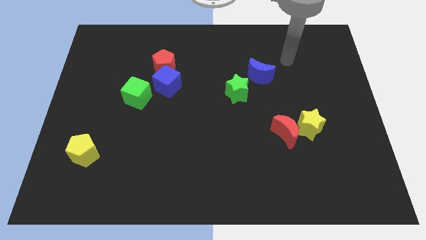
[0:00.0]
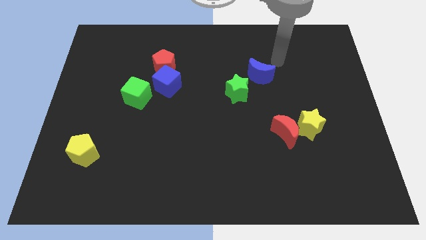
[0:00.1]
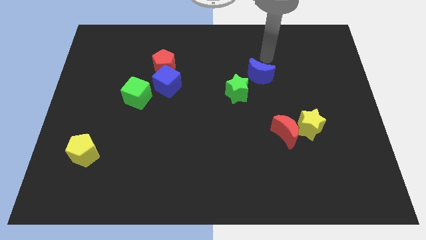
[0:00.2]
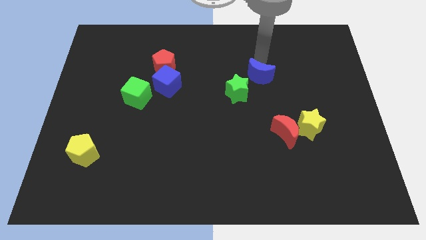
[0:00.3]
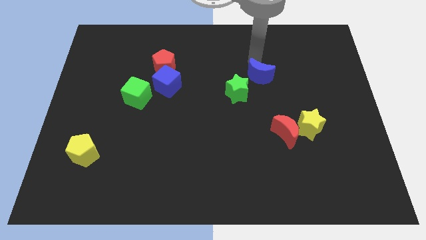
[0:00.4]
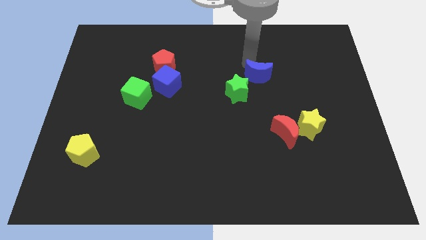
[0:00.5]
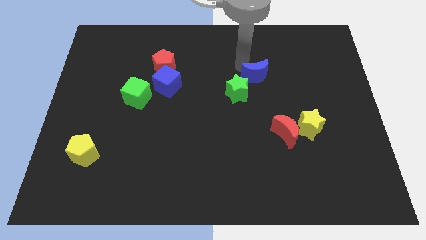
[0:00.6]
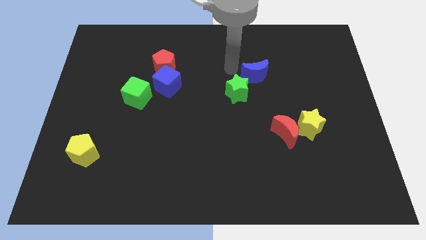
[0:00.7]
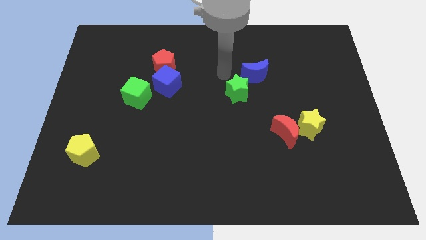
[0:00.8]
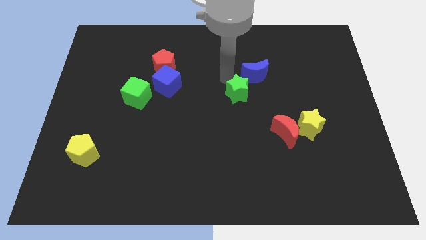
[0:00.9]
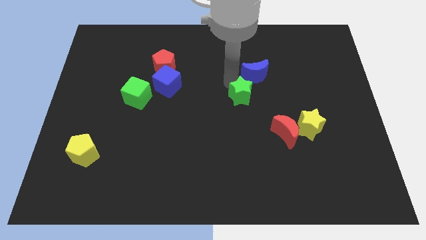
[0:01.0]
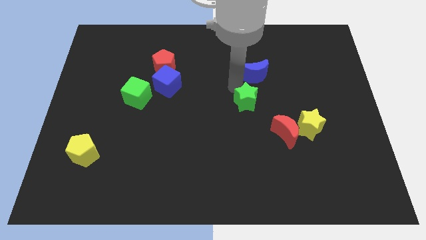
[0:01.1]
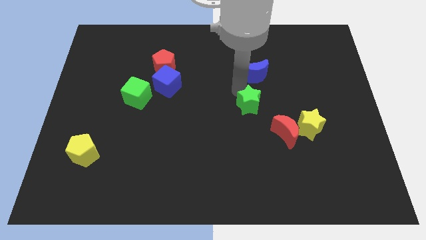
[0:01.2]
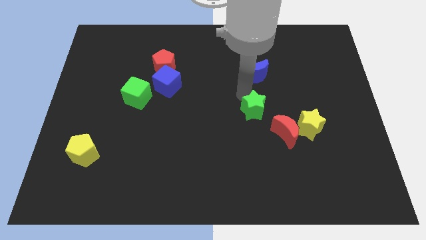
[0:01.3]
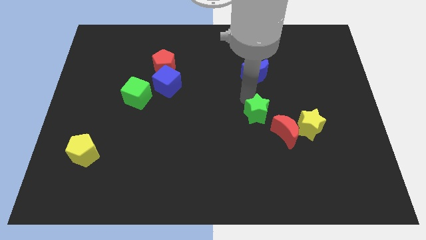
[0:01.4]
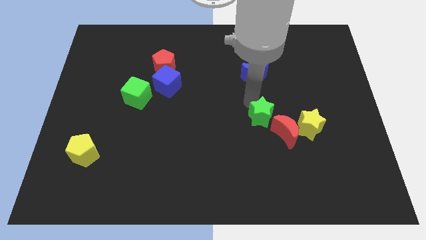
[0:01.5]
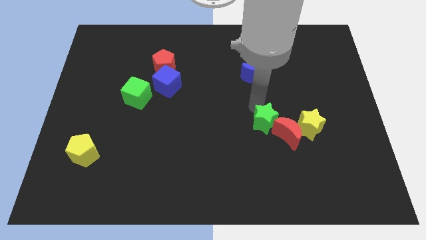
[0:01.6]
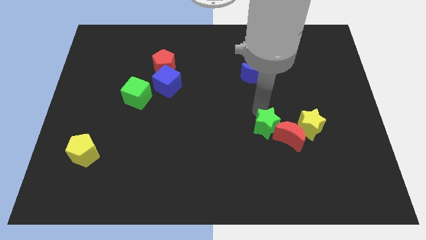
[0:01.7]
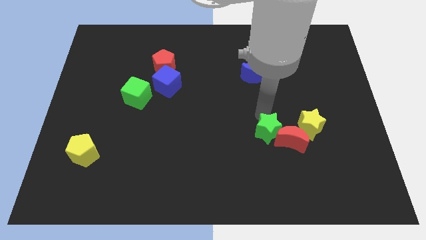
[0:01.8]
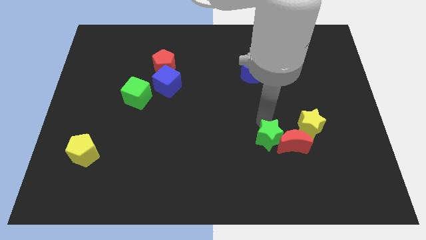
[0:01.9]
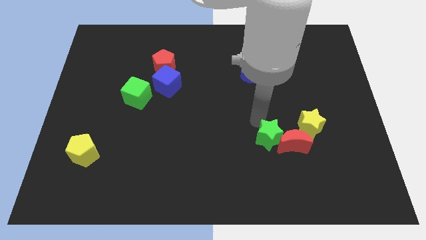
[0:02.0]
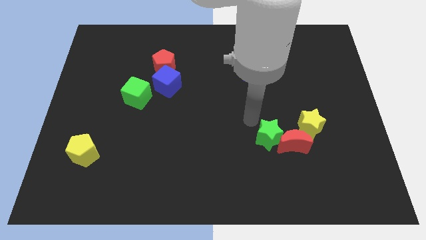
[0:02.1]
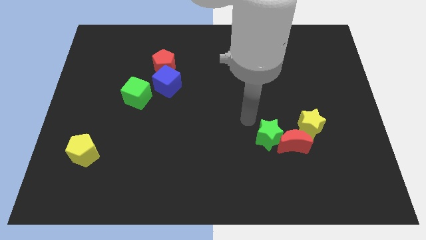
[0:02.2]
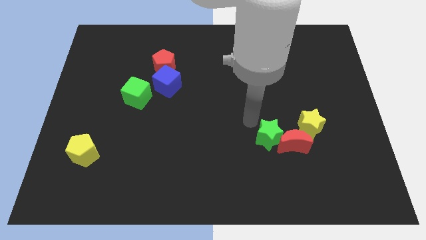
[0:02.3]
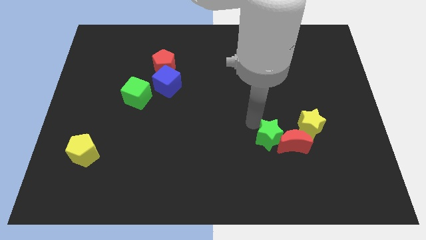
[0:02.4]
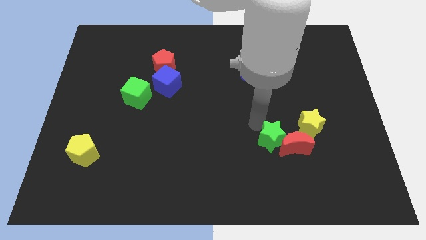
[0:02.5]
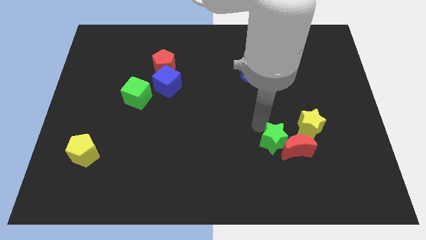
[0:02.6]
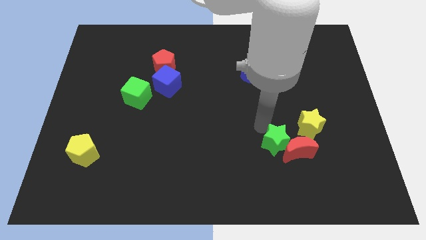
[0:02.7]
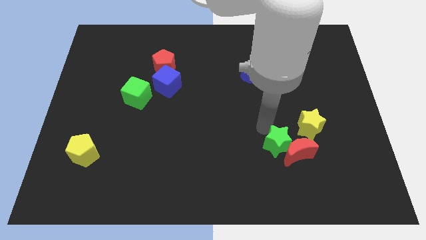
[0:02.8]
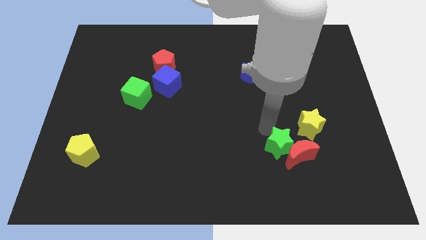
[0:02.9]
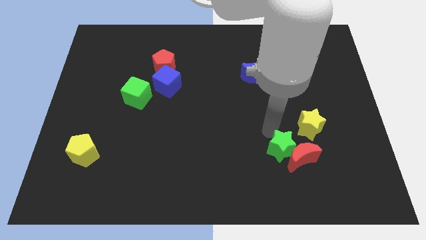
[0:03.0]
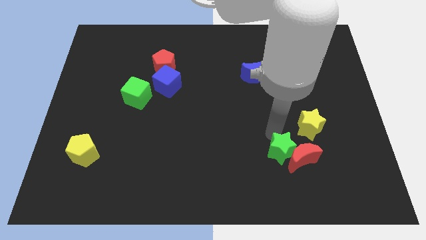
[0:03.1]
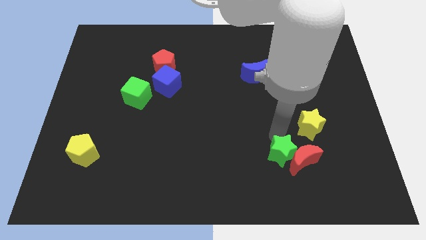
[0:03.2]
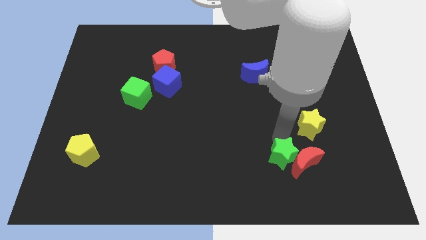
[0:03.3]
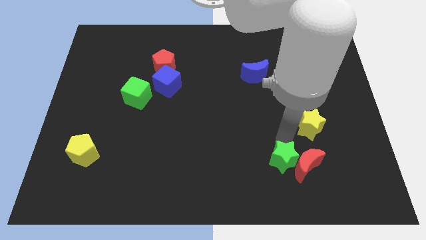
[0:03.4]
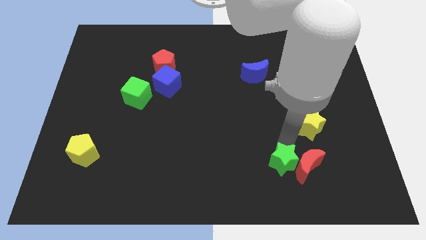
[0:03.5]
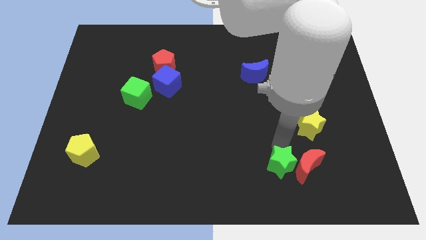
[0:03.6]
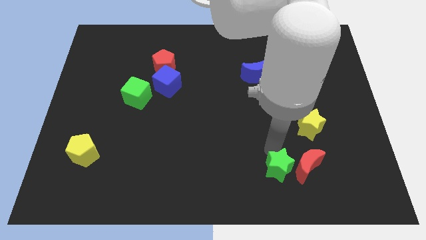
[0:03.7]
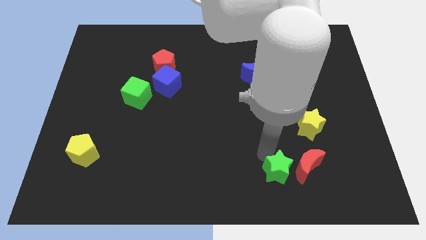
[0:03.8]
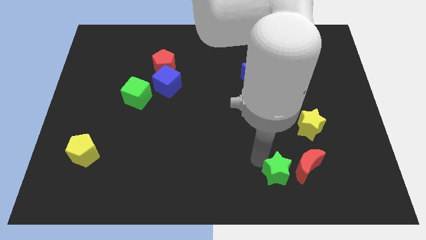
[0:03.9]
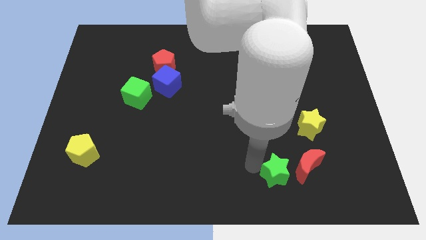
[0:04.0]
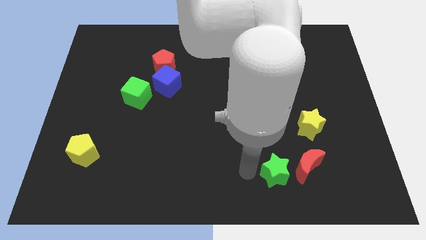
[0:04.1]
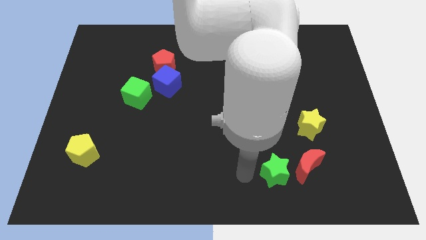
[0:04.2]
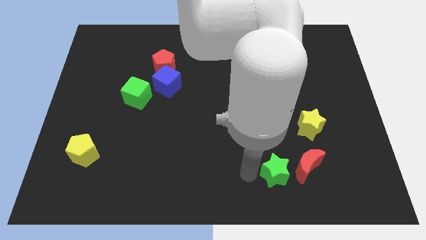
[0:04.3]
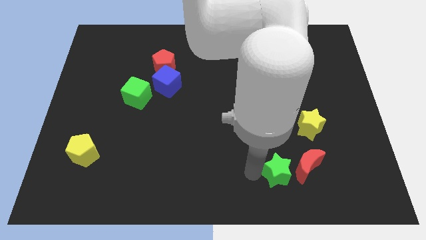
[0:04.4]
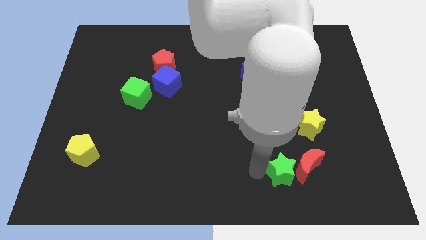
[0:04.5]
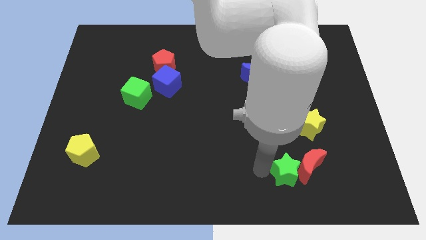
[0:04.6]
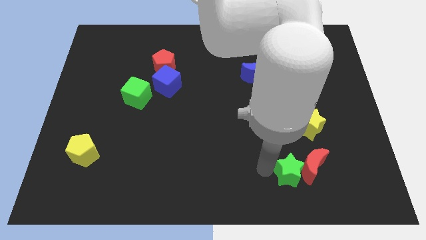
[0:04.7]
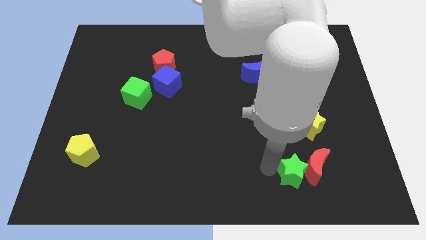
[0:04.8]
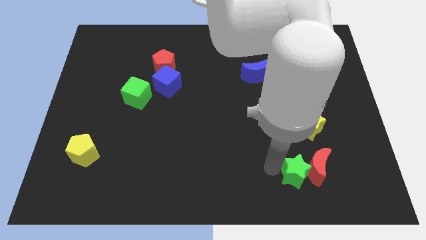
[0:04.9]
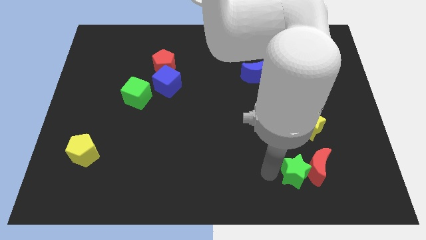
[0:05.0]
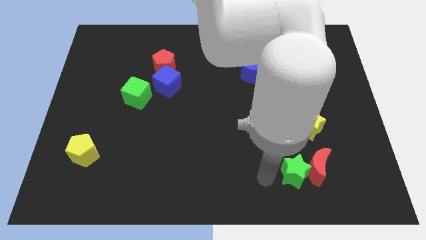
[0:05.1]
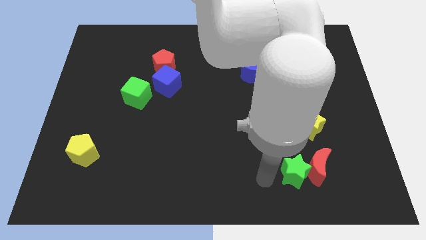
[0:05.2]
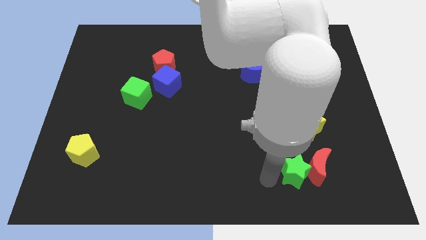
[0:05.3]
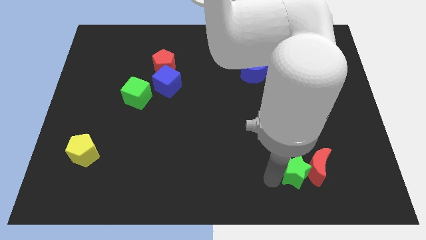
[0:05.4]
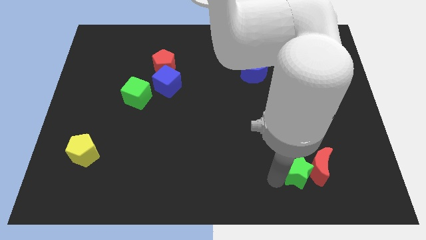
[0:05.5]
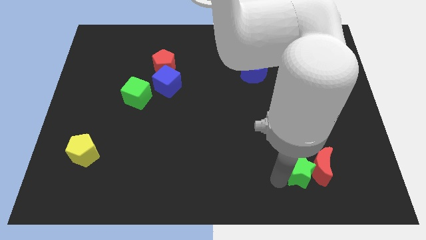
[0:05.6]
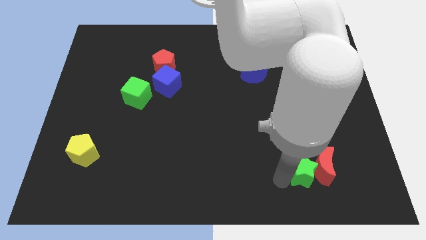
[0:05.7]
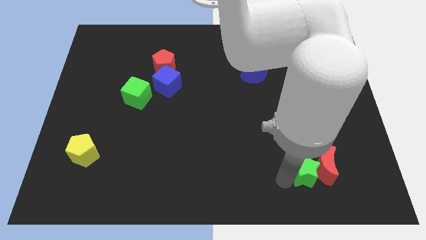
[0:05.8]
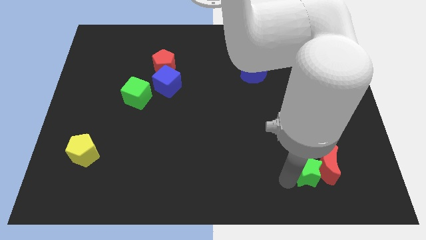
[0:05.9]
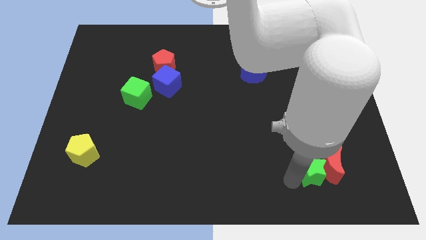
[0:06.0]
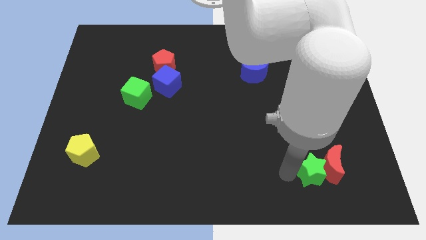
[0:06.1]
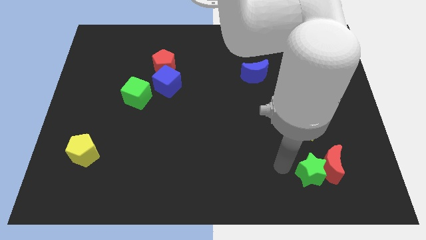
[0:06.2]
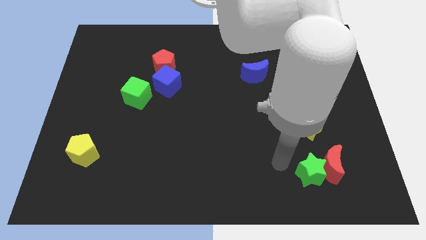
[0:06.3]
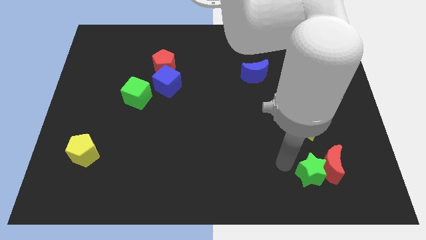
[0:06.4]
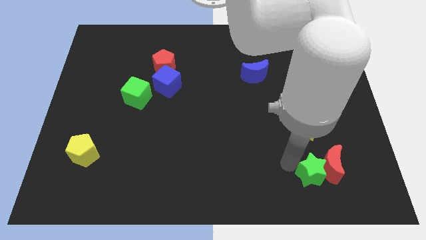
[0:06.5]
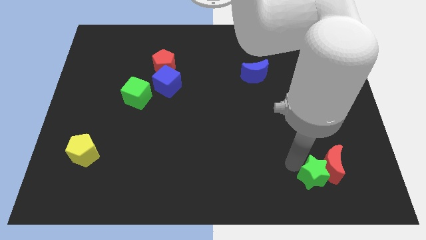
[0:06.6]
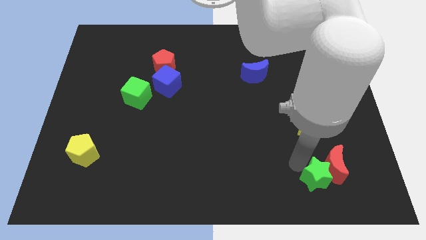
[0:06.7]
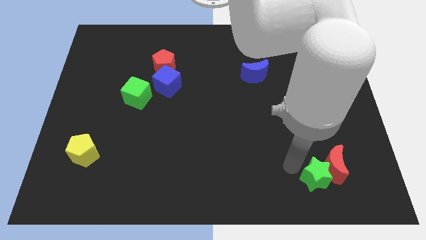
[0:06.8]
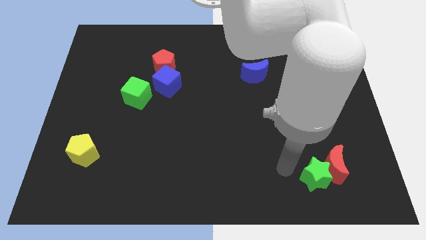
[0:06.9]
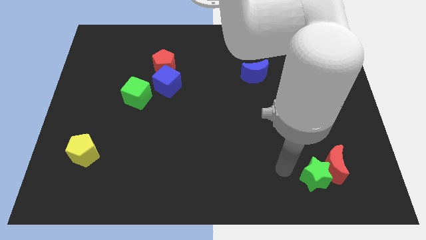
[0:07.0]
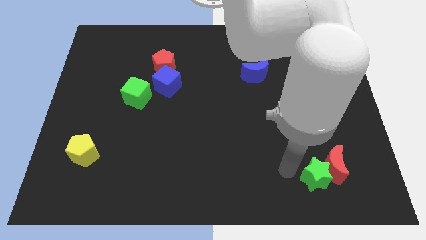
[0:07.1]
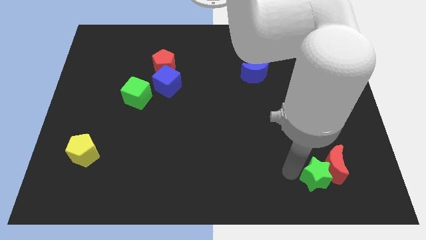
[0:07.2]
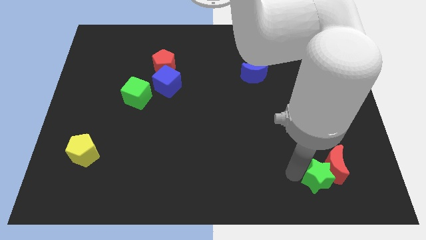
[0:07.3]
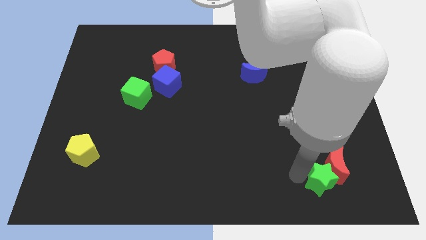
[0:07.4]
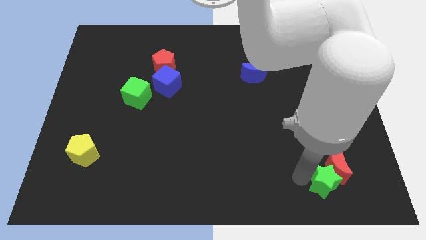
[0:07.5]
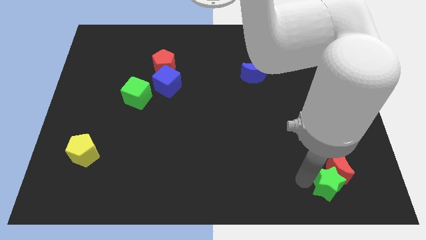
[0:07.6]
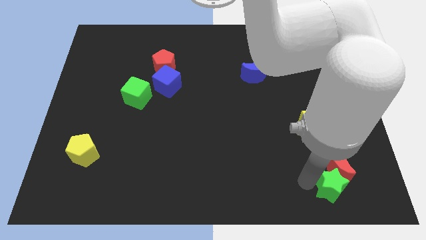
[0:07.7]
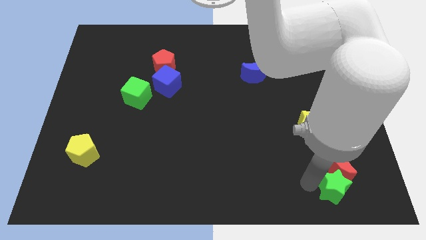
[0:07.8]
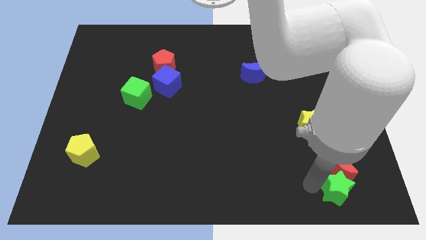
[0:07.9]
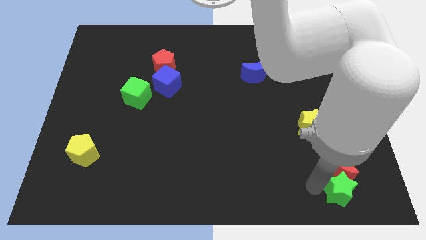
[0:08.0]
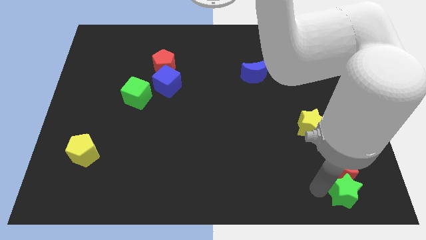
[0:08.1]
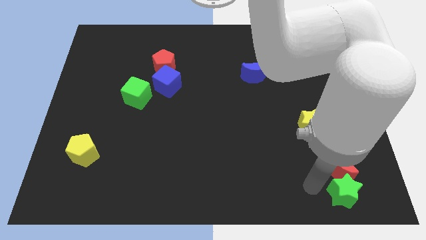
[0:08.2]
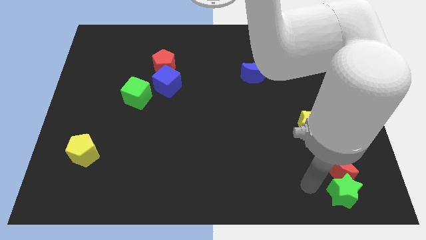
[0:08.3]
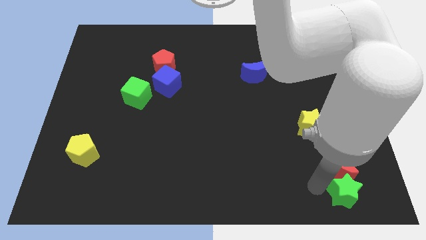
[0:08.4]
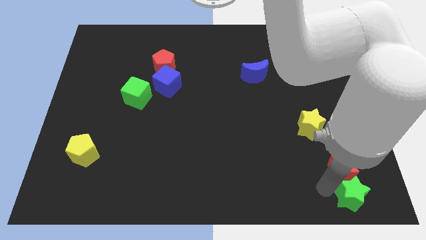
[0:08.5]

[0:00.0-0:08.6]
move the green star to the bottom right
